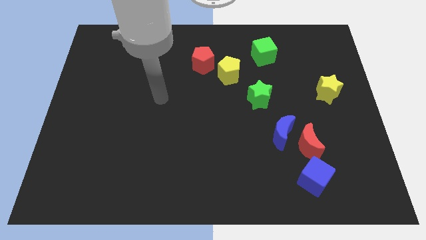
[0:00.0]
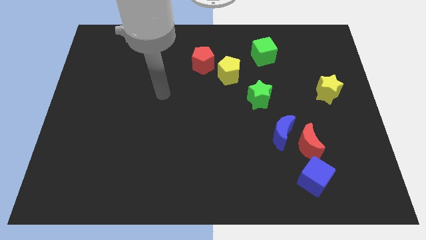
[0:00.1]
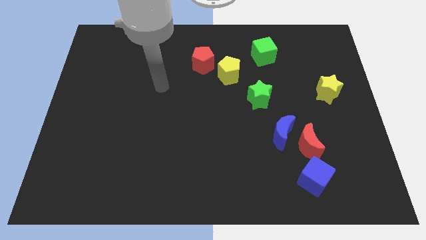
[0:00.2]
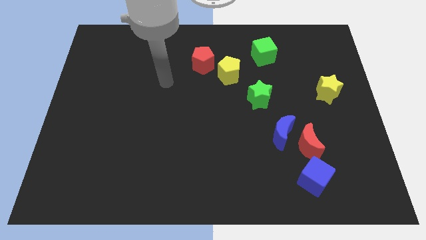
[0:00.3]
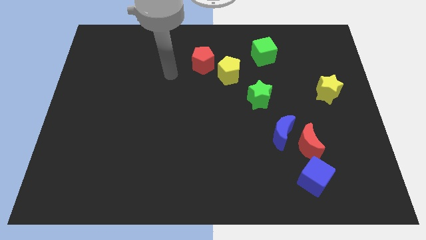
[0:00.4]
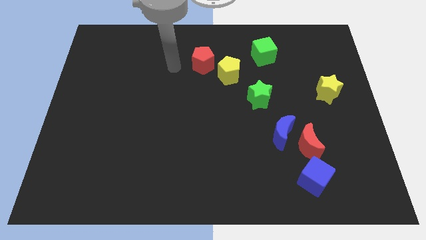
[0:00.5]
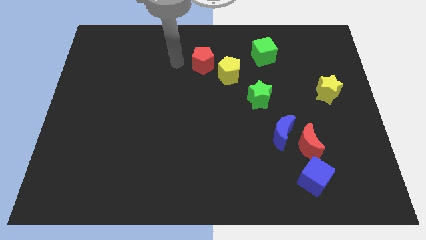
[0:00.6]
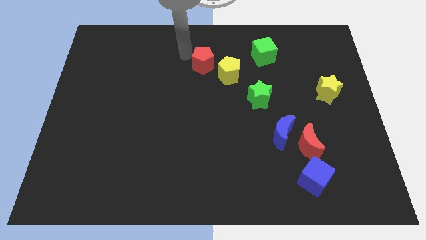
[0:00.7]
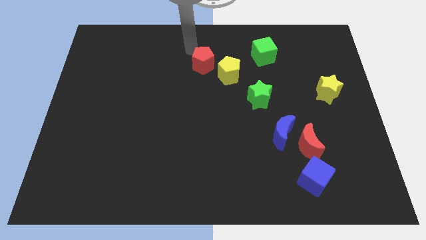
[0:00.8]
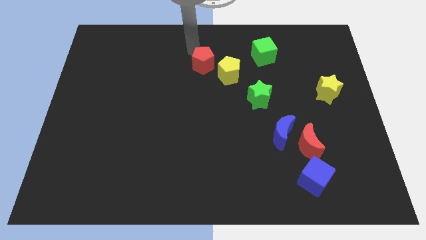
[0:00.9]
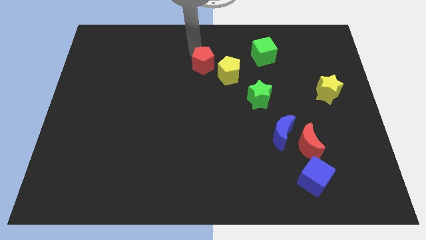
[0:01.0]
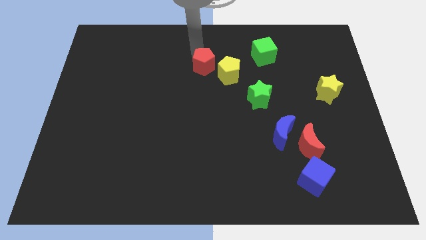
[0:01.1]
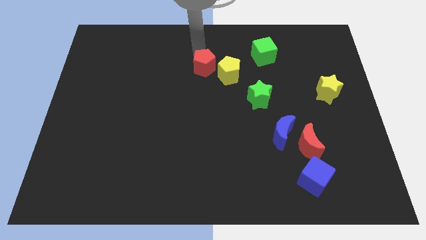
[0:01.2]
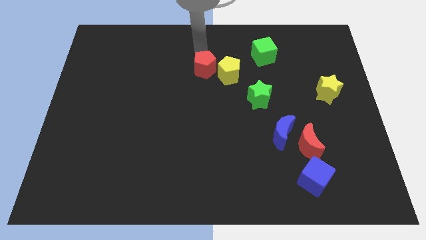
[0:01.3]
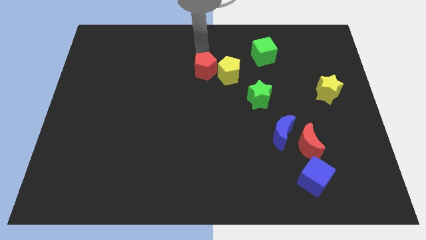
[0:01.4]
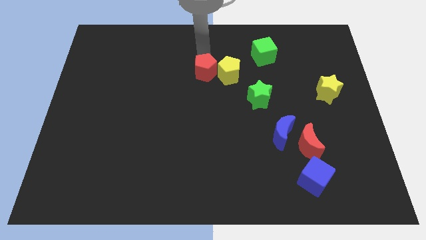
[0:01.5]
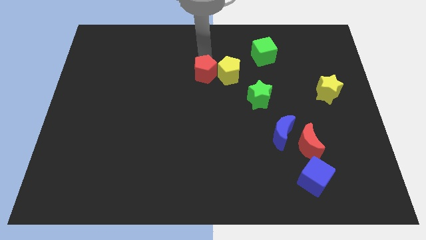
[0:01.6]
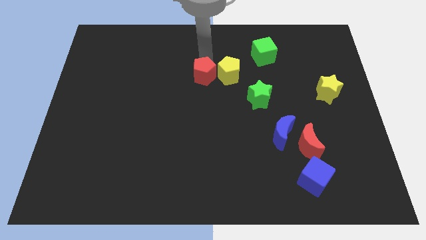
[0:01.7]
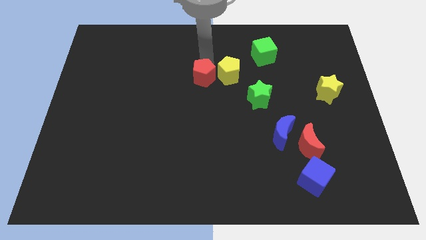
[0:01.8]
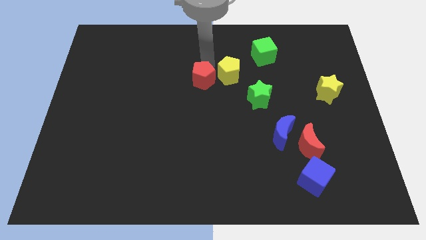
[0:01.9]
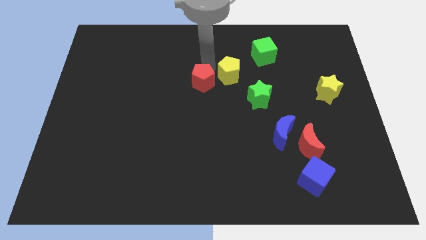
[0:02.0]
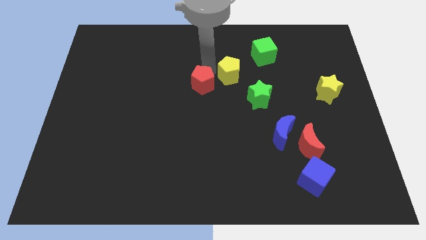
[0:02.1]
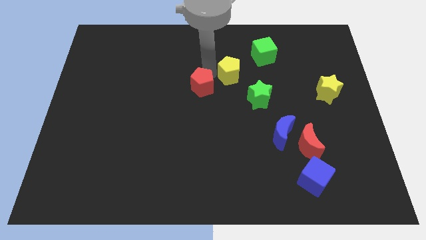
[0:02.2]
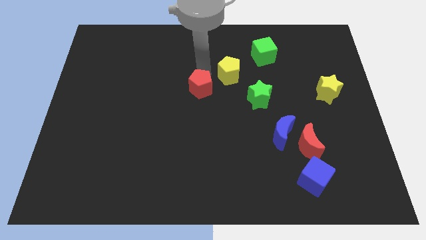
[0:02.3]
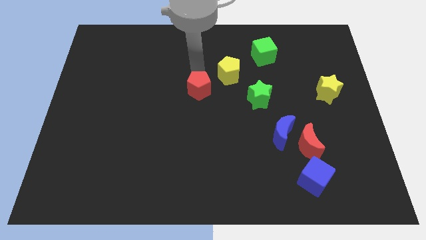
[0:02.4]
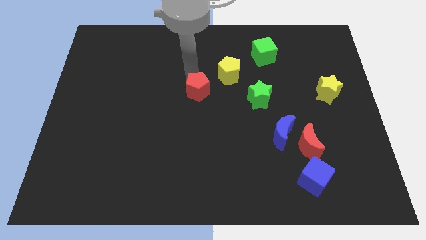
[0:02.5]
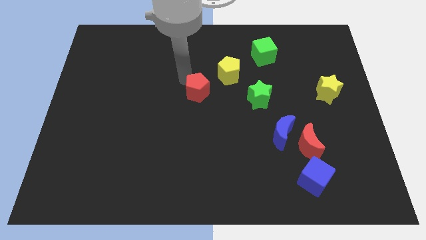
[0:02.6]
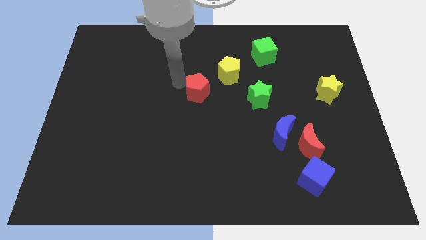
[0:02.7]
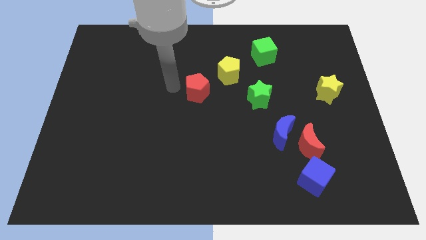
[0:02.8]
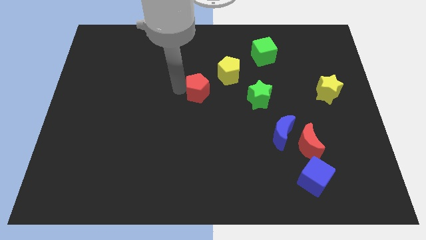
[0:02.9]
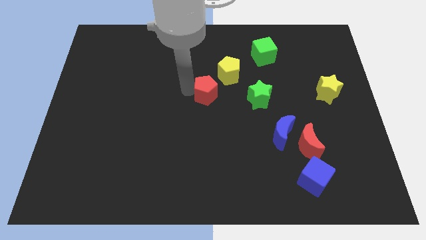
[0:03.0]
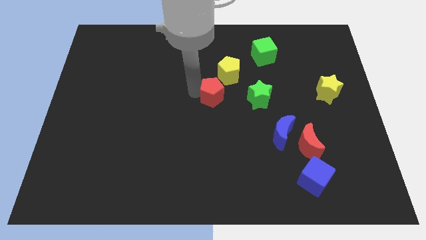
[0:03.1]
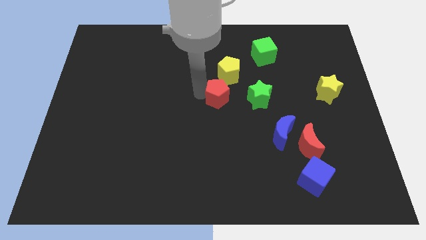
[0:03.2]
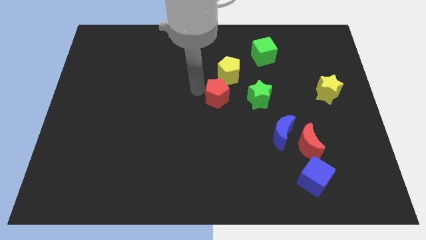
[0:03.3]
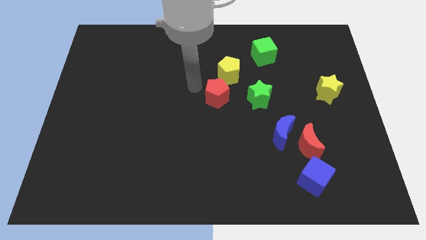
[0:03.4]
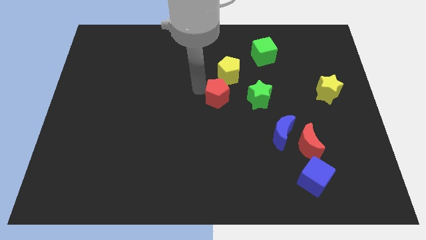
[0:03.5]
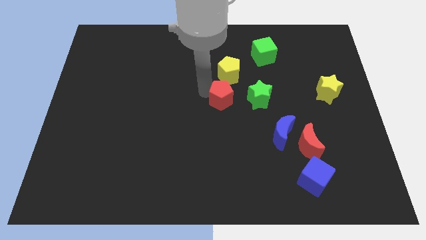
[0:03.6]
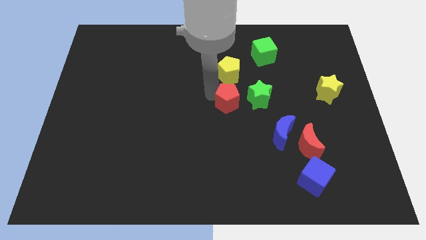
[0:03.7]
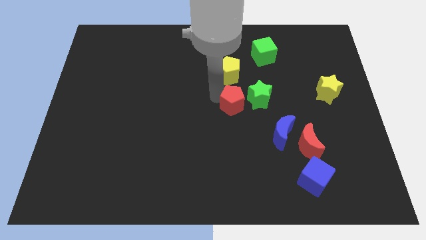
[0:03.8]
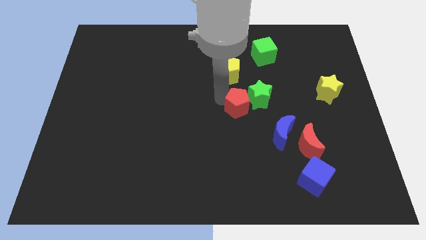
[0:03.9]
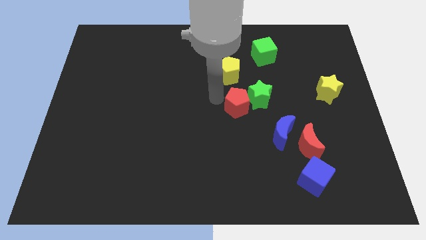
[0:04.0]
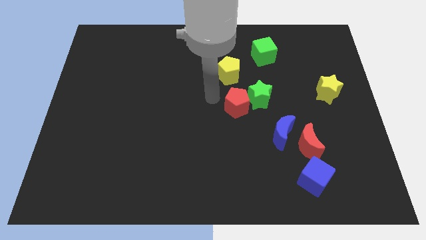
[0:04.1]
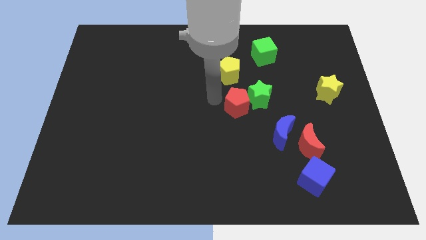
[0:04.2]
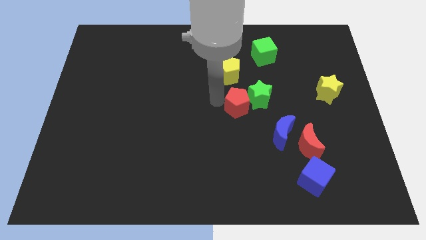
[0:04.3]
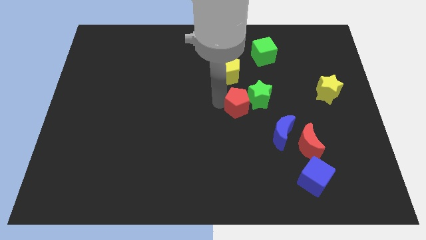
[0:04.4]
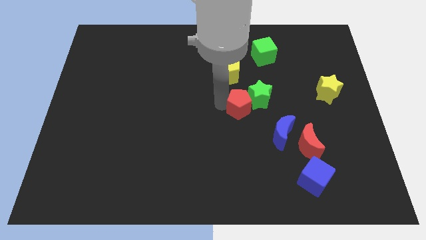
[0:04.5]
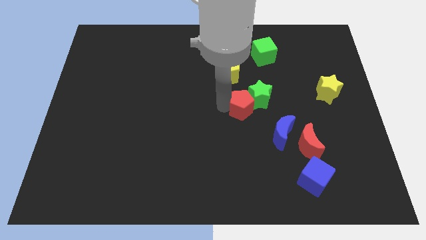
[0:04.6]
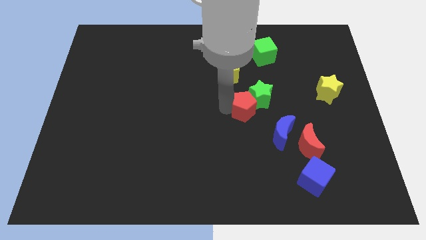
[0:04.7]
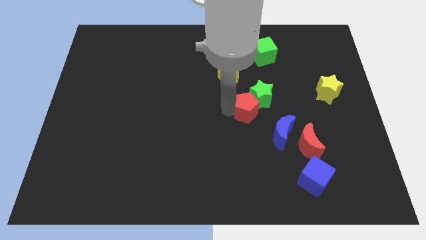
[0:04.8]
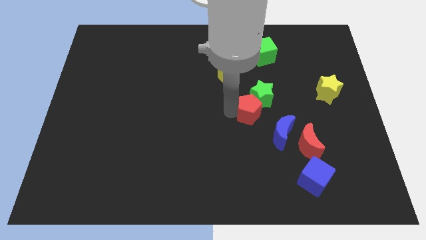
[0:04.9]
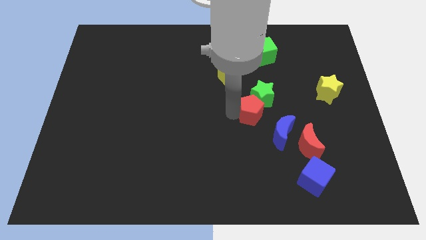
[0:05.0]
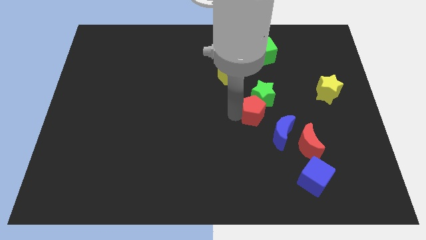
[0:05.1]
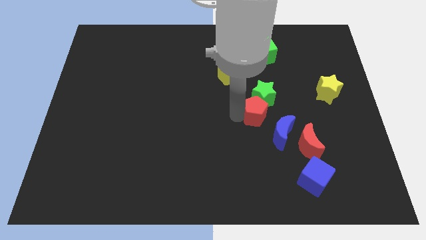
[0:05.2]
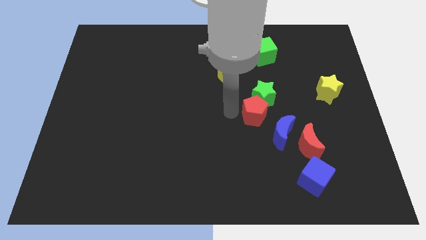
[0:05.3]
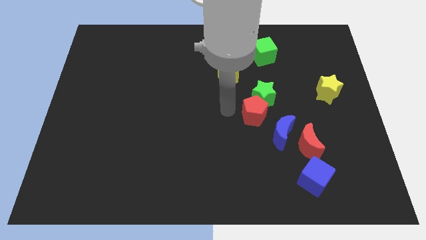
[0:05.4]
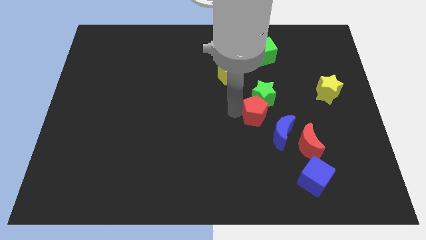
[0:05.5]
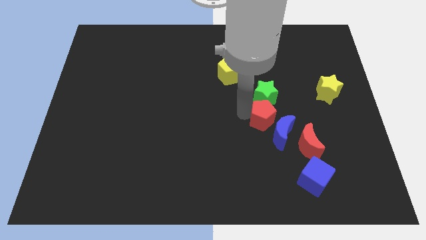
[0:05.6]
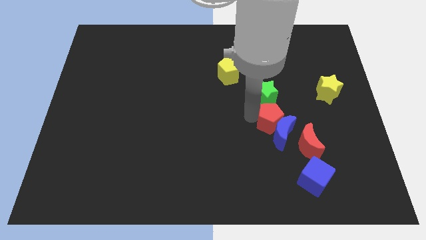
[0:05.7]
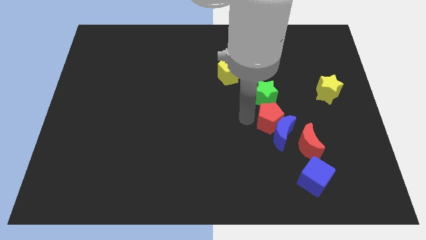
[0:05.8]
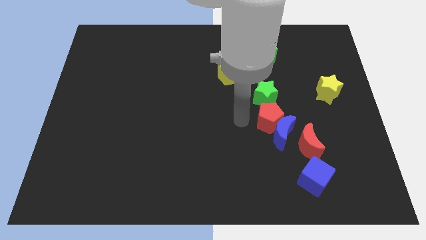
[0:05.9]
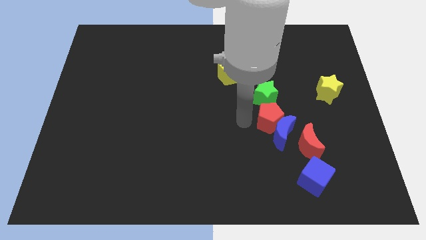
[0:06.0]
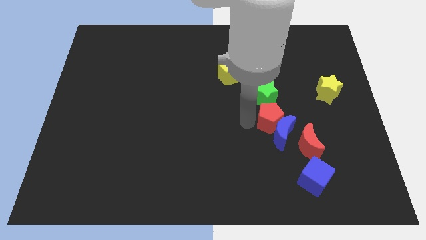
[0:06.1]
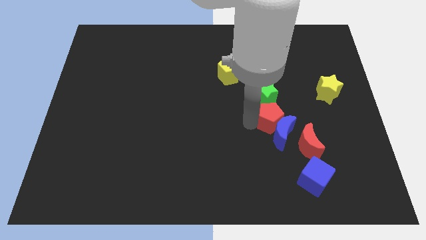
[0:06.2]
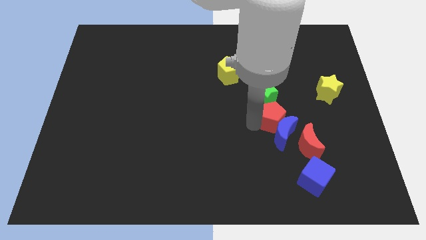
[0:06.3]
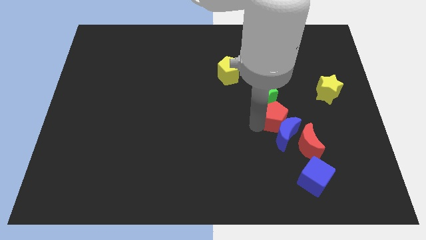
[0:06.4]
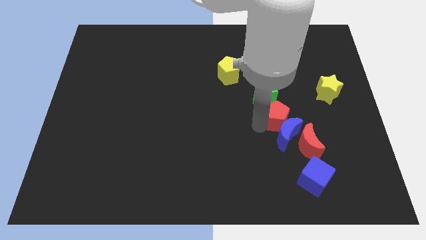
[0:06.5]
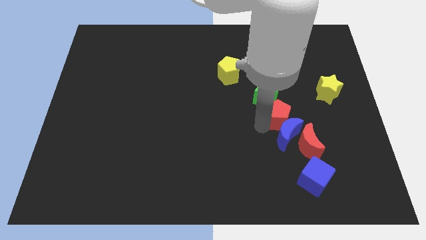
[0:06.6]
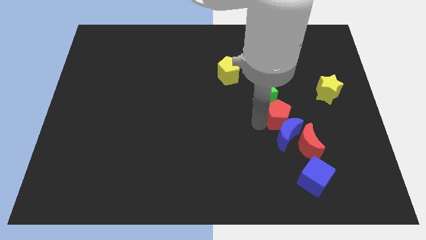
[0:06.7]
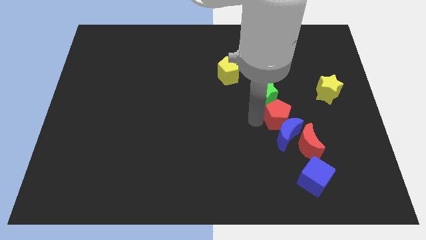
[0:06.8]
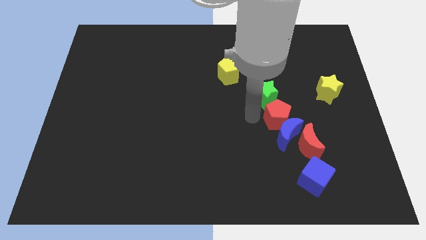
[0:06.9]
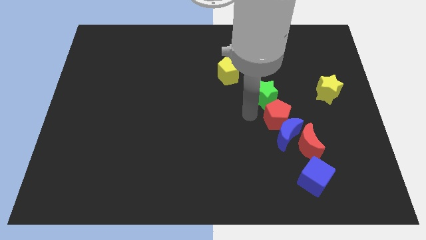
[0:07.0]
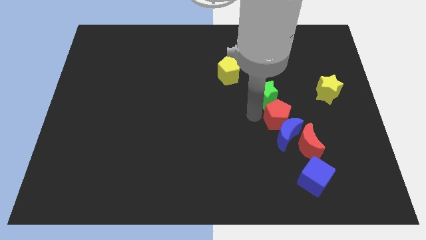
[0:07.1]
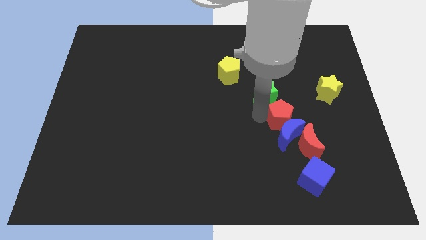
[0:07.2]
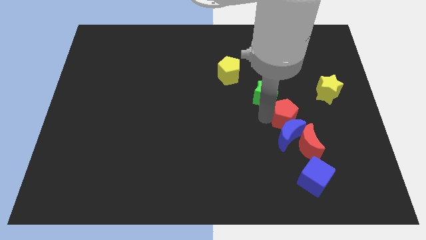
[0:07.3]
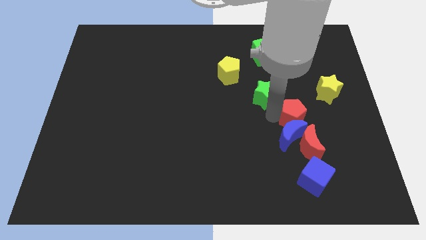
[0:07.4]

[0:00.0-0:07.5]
put the red pentagon to the top side of the blue cube

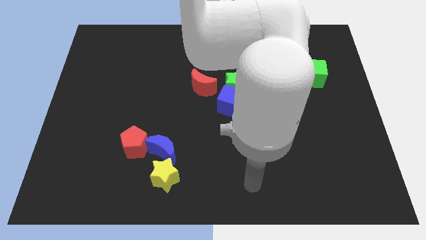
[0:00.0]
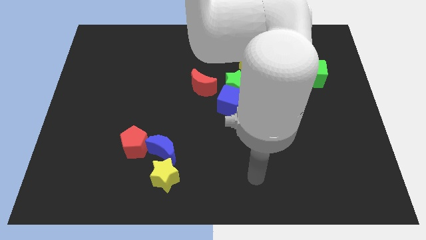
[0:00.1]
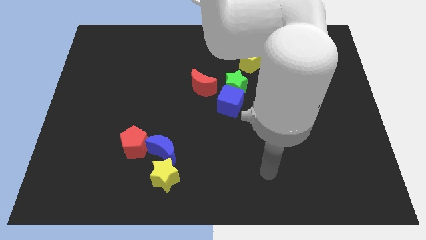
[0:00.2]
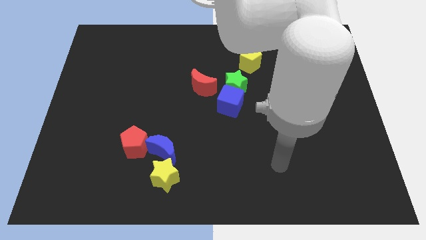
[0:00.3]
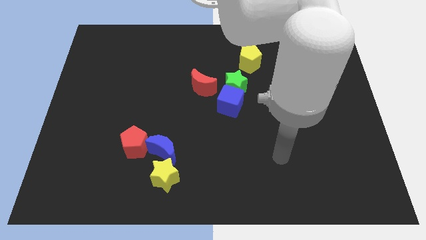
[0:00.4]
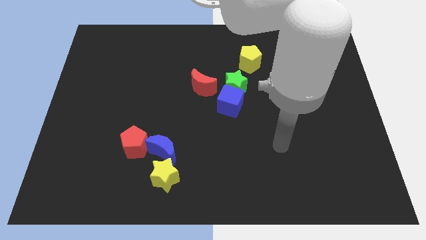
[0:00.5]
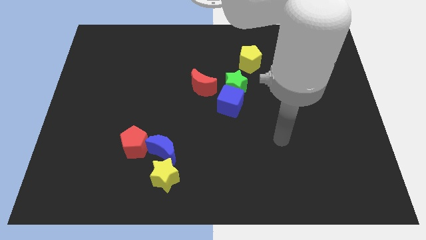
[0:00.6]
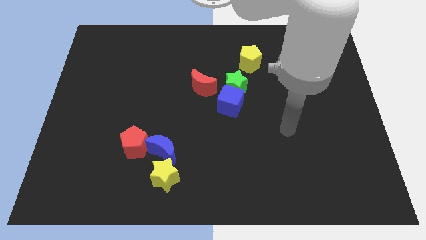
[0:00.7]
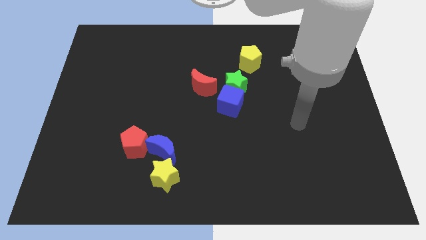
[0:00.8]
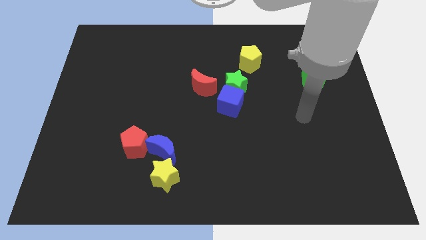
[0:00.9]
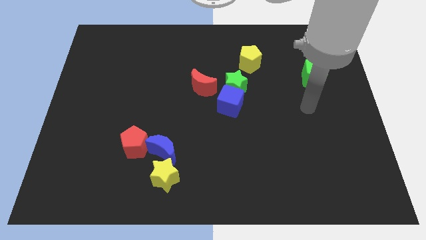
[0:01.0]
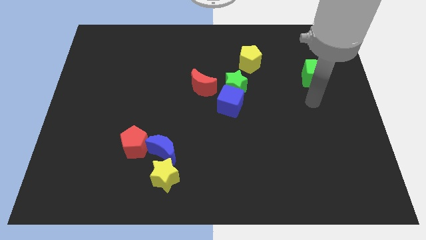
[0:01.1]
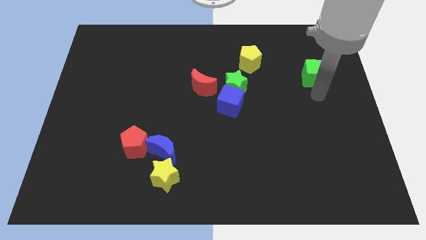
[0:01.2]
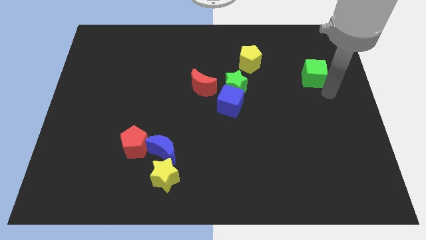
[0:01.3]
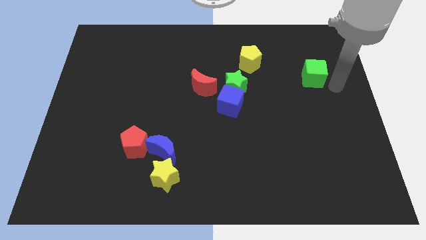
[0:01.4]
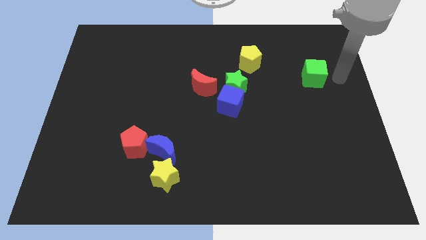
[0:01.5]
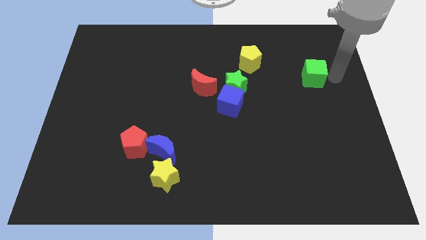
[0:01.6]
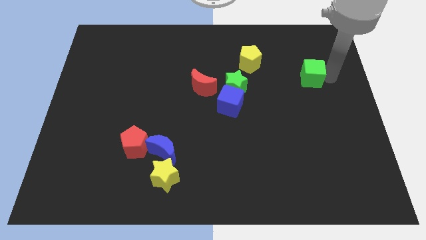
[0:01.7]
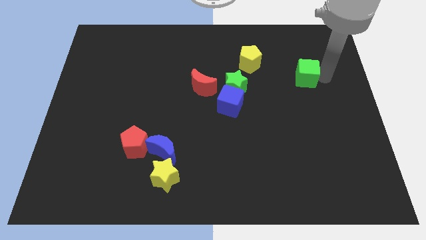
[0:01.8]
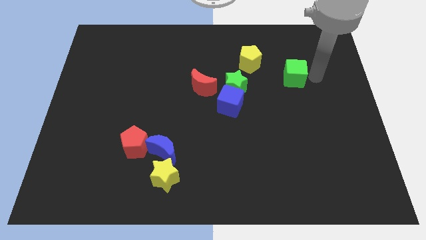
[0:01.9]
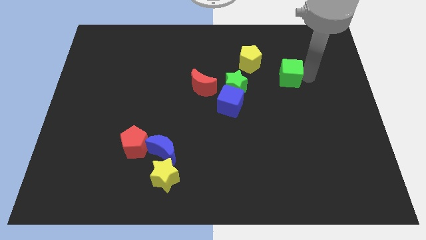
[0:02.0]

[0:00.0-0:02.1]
slide the green cube diagonally down and to the right of the yellow pentagon
